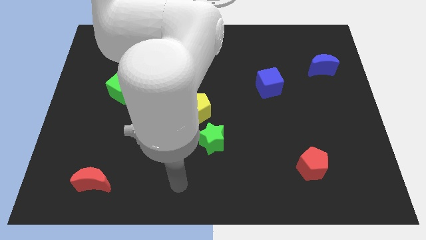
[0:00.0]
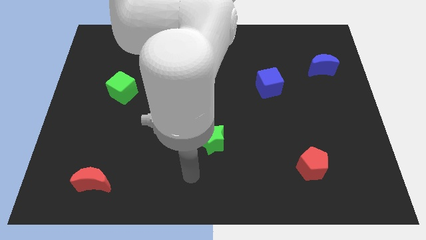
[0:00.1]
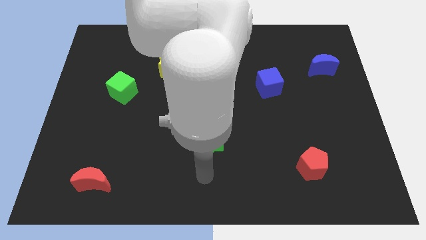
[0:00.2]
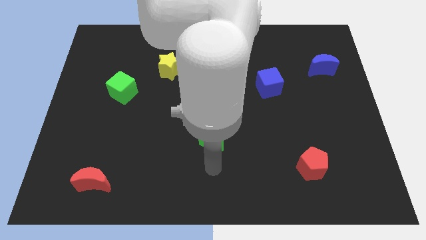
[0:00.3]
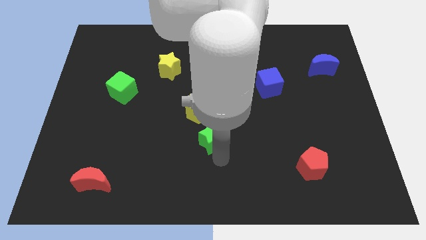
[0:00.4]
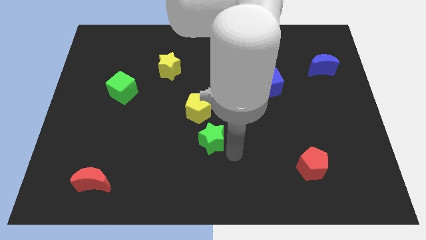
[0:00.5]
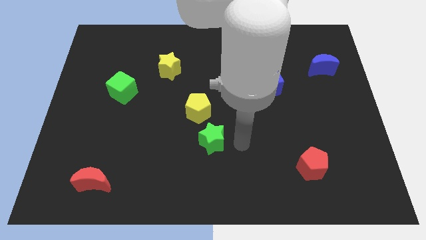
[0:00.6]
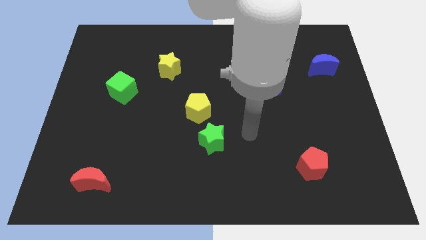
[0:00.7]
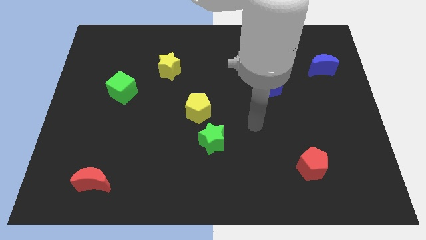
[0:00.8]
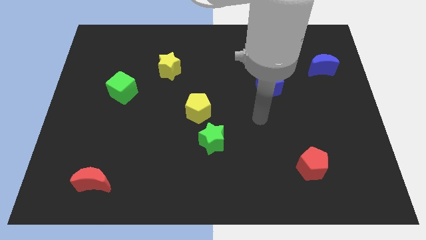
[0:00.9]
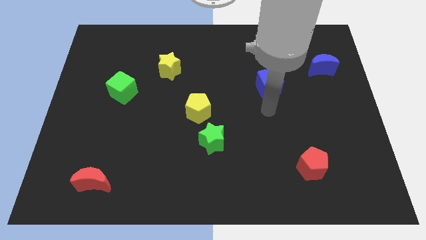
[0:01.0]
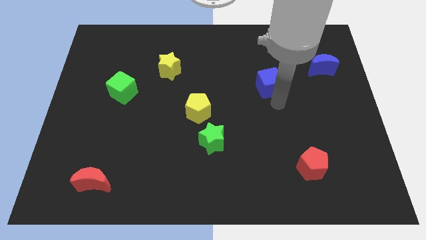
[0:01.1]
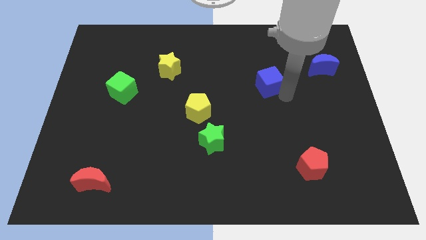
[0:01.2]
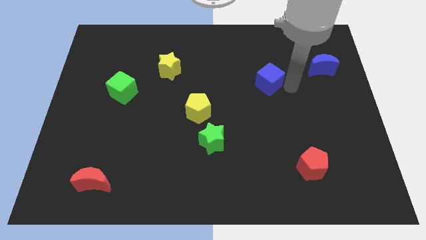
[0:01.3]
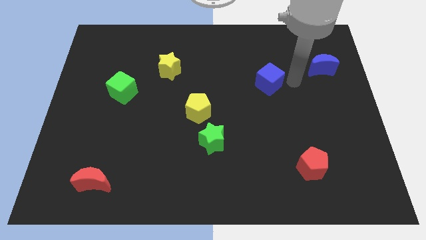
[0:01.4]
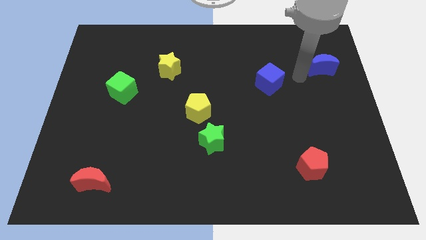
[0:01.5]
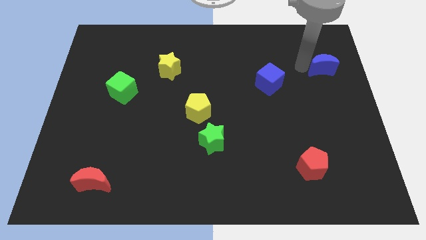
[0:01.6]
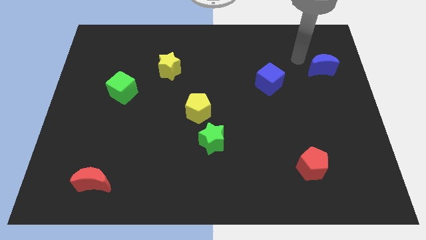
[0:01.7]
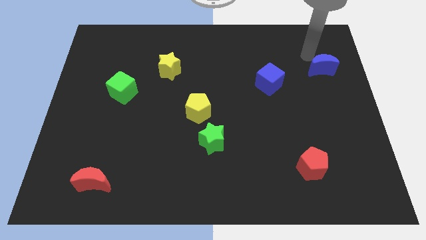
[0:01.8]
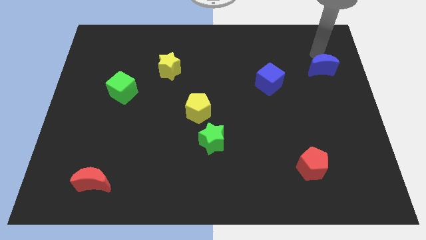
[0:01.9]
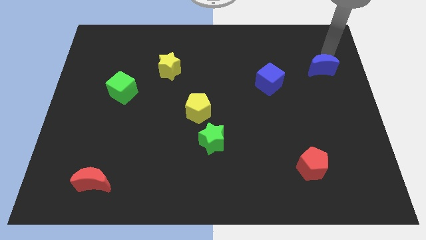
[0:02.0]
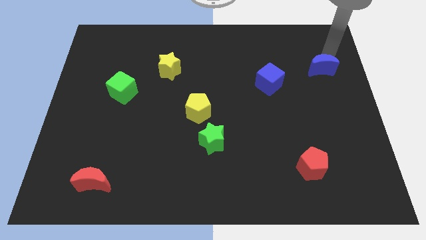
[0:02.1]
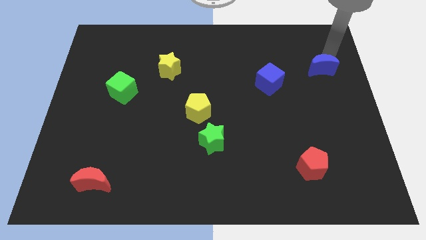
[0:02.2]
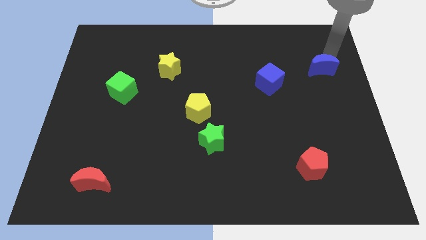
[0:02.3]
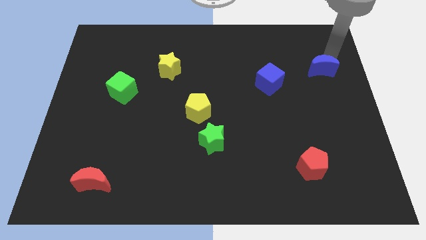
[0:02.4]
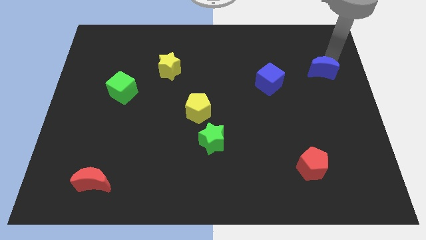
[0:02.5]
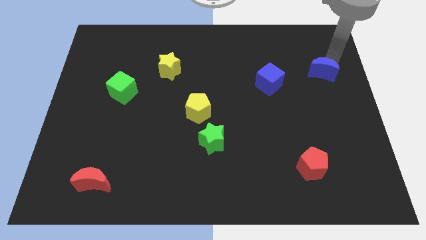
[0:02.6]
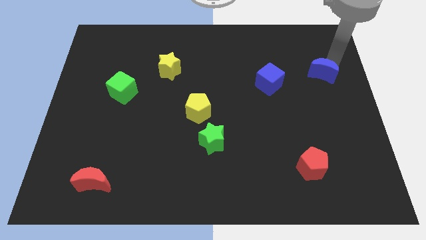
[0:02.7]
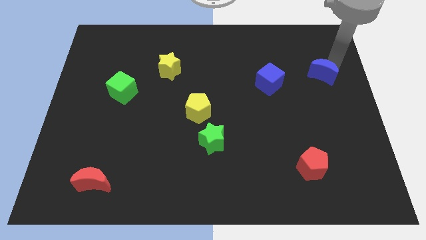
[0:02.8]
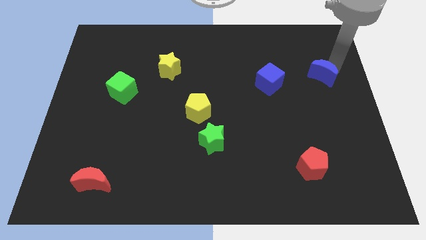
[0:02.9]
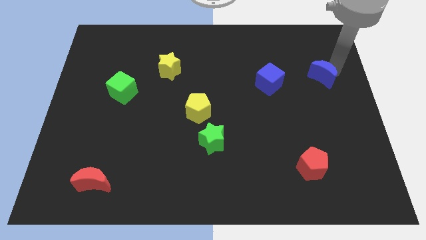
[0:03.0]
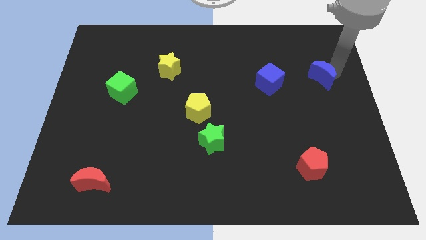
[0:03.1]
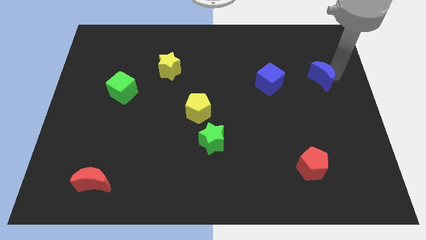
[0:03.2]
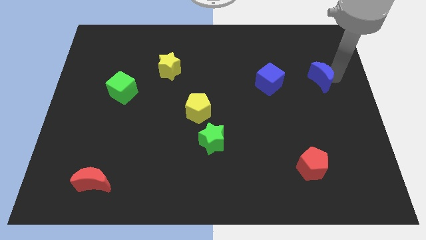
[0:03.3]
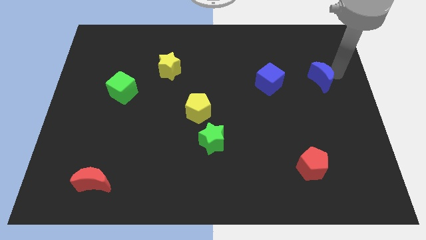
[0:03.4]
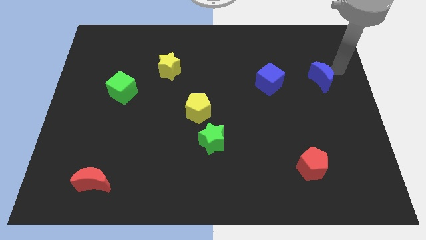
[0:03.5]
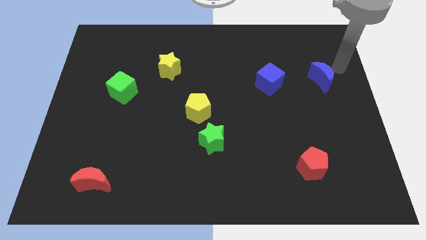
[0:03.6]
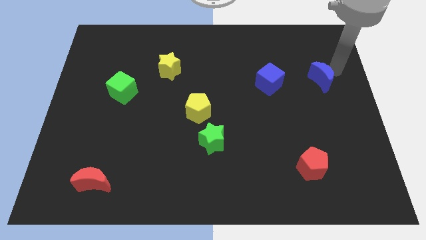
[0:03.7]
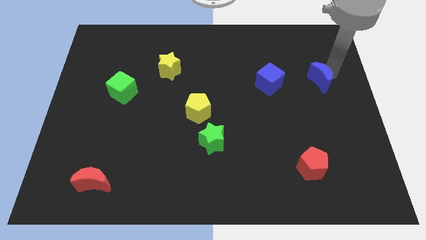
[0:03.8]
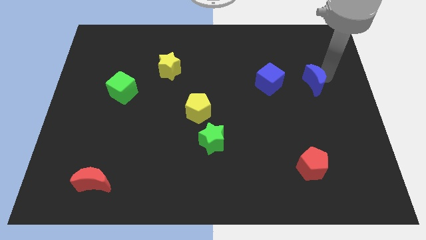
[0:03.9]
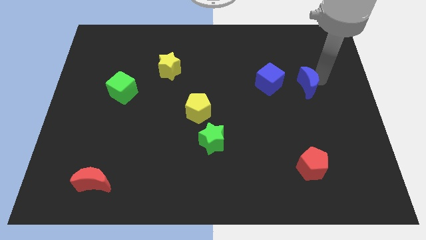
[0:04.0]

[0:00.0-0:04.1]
move the blue moon slightly downwards and left

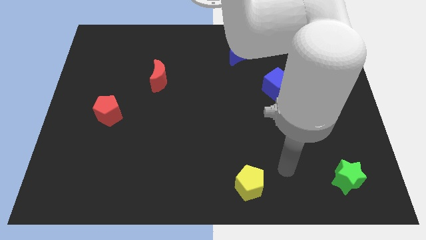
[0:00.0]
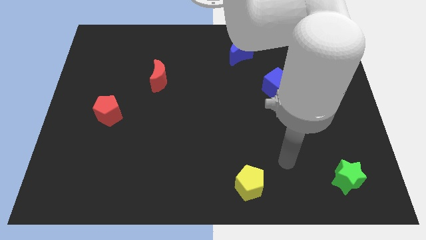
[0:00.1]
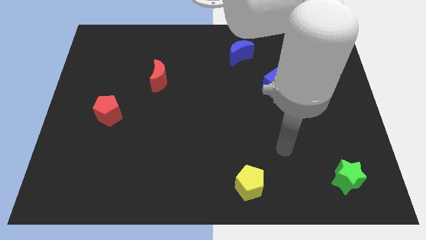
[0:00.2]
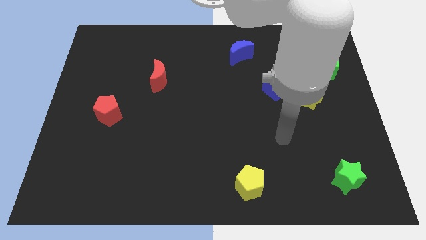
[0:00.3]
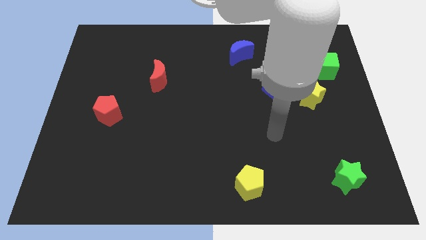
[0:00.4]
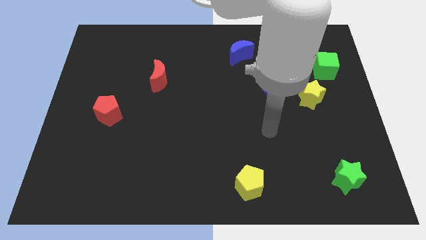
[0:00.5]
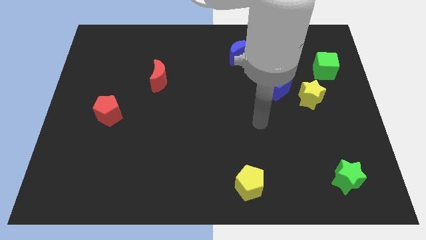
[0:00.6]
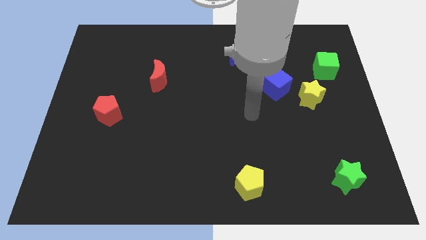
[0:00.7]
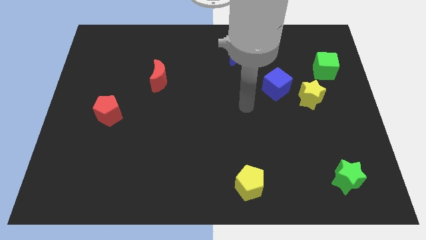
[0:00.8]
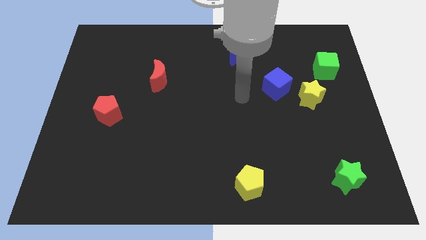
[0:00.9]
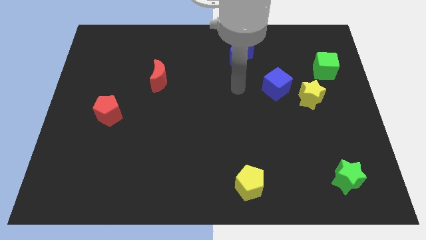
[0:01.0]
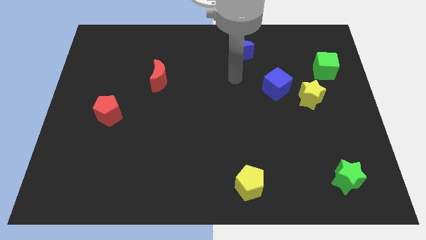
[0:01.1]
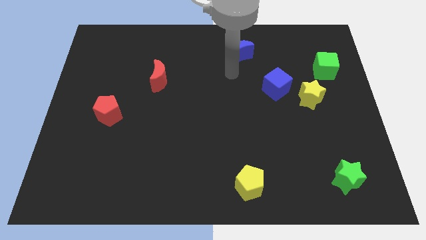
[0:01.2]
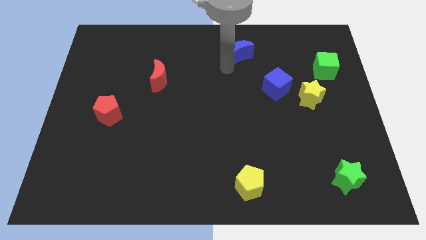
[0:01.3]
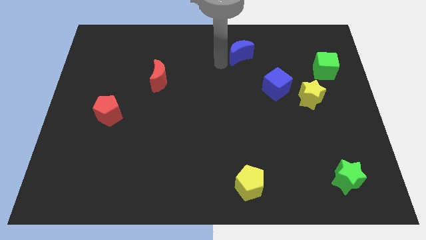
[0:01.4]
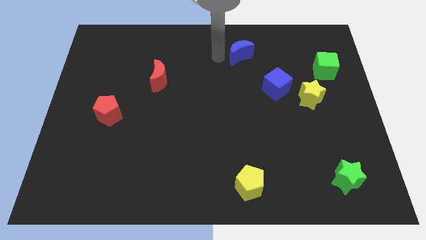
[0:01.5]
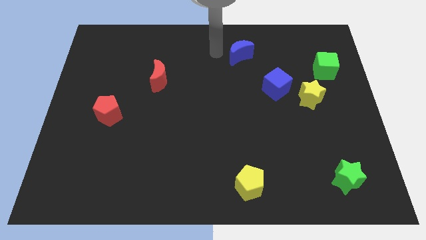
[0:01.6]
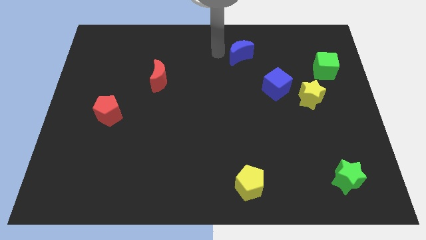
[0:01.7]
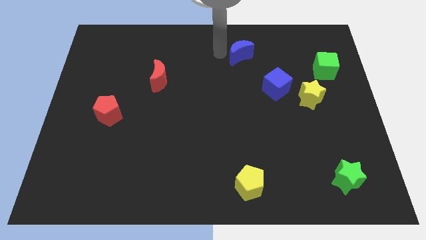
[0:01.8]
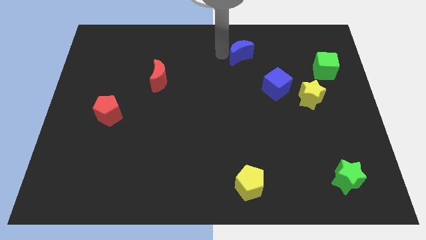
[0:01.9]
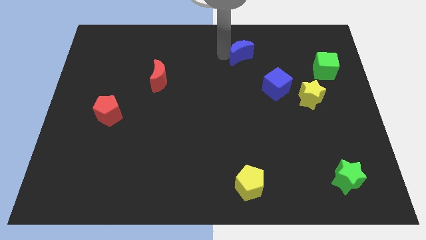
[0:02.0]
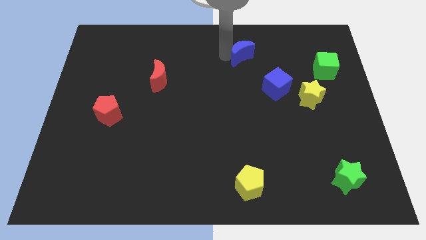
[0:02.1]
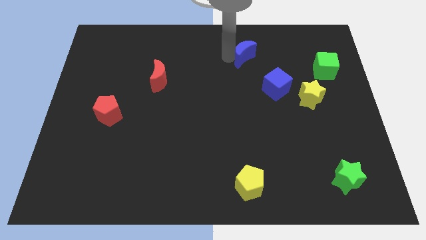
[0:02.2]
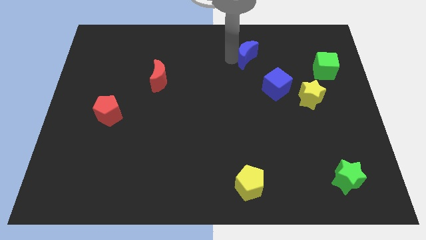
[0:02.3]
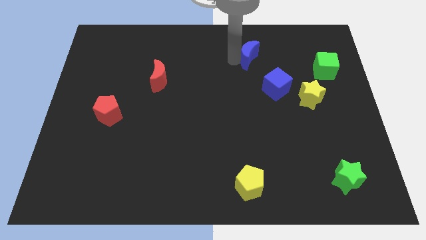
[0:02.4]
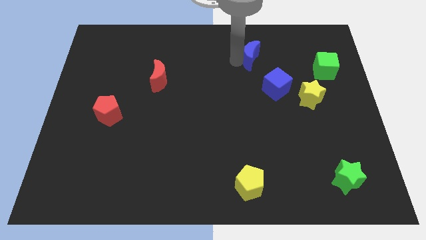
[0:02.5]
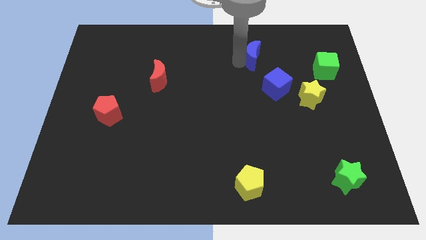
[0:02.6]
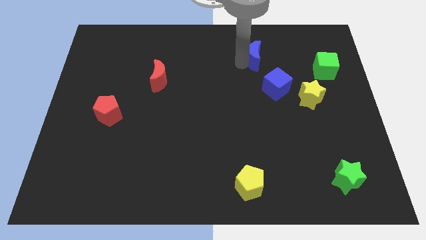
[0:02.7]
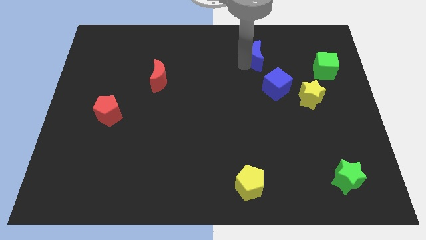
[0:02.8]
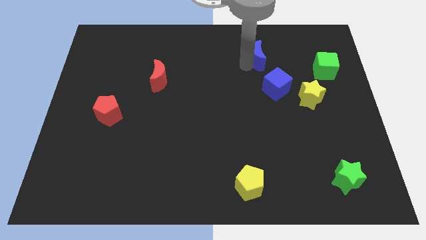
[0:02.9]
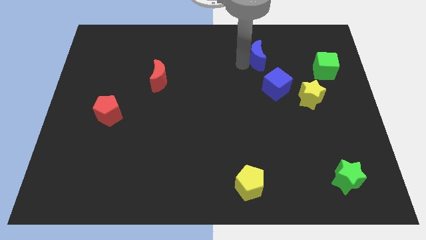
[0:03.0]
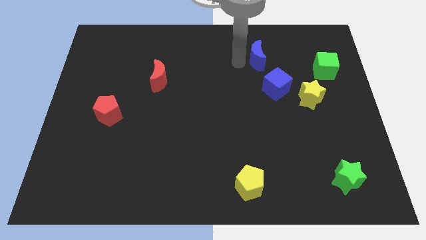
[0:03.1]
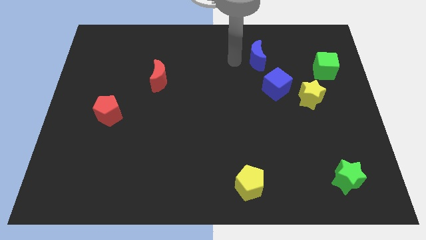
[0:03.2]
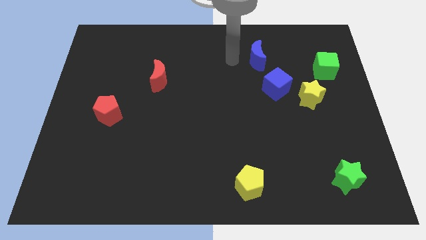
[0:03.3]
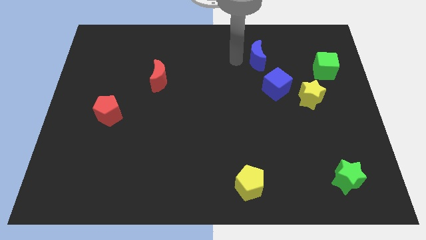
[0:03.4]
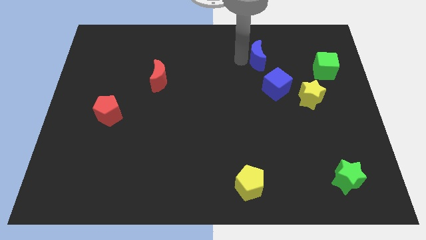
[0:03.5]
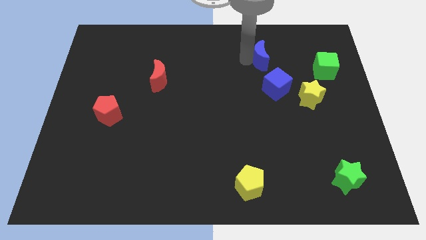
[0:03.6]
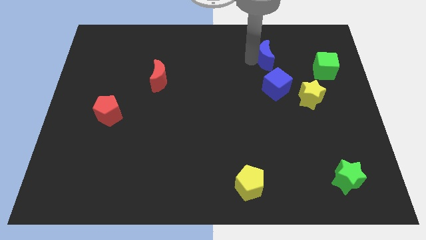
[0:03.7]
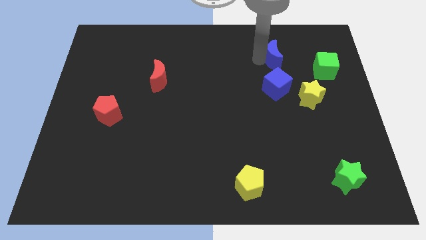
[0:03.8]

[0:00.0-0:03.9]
slide the blue moon to the right slightly
